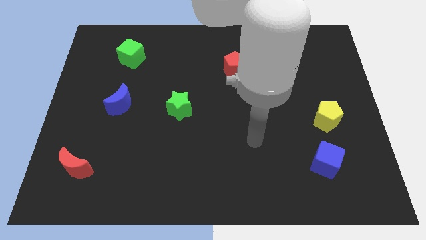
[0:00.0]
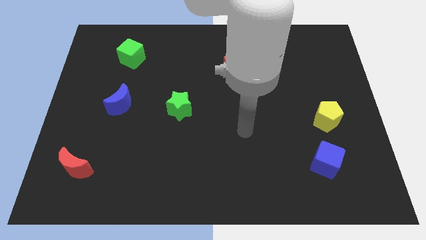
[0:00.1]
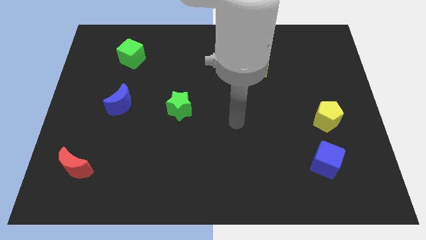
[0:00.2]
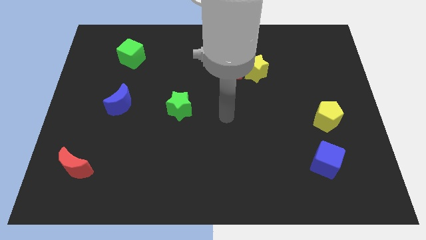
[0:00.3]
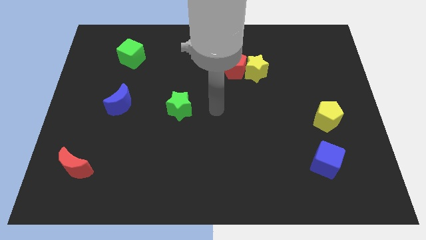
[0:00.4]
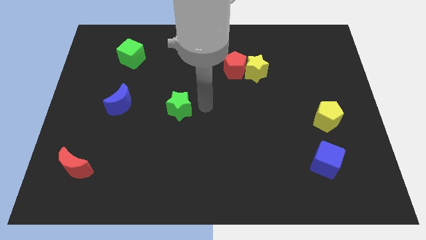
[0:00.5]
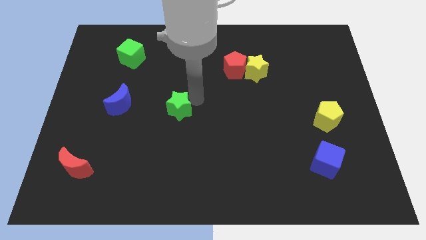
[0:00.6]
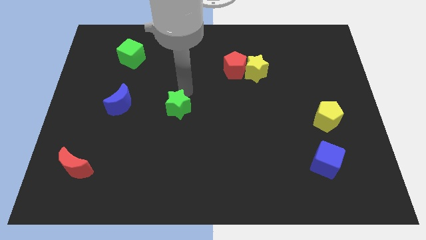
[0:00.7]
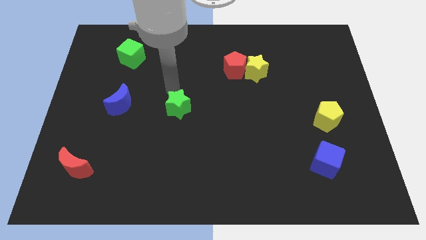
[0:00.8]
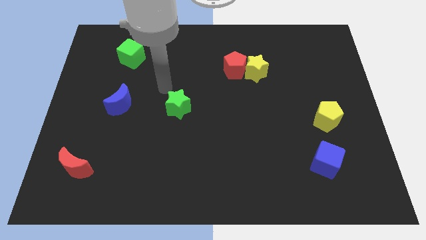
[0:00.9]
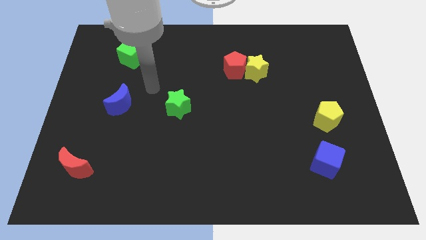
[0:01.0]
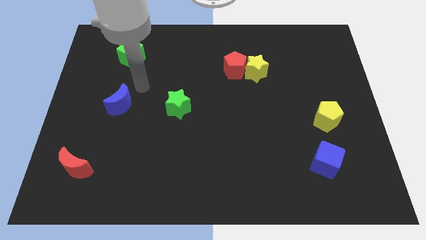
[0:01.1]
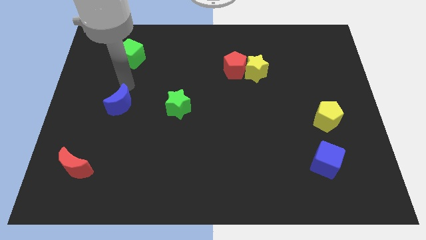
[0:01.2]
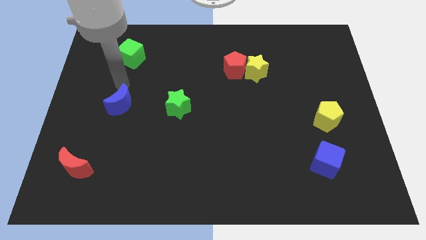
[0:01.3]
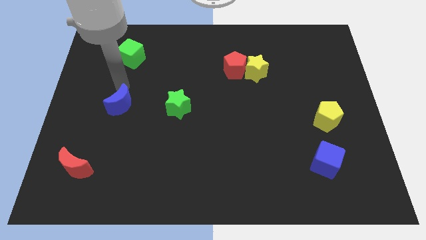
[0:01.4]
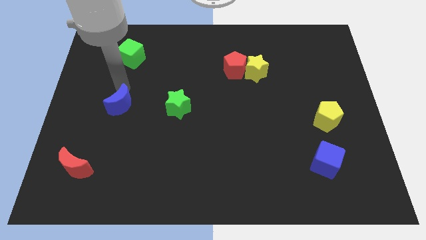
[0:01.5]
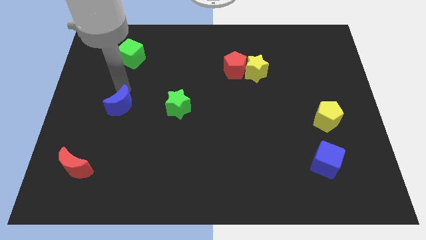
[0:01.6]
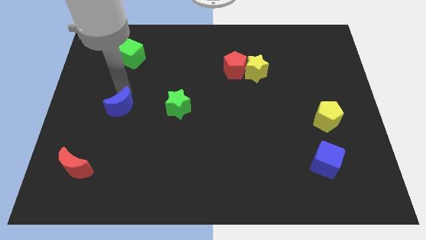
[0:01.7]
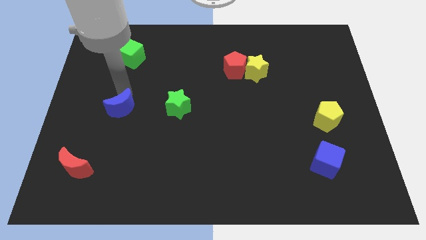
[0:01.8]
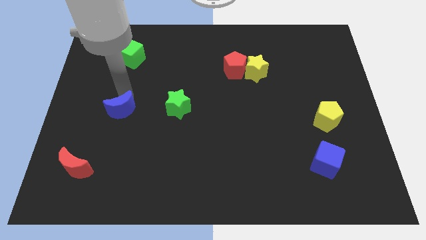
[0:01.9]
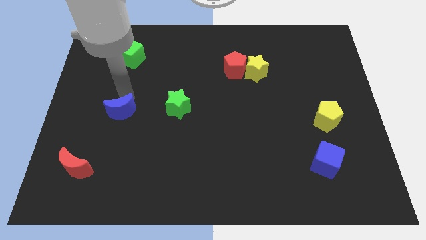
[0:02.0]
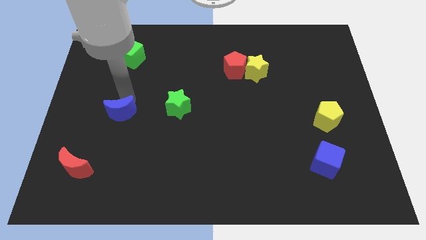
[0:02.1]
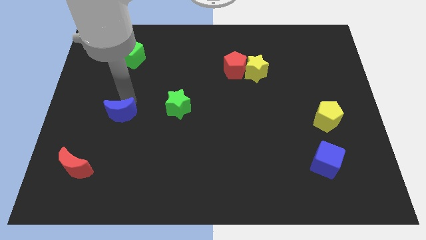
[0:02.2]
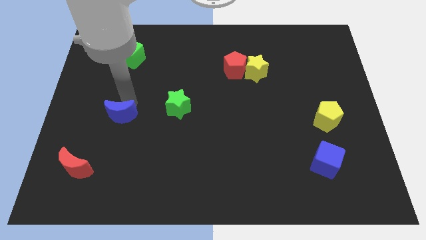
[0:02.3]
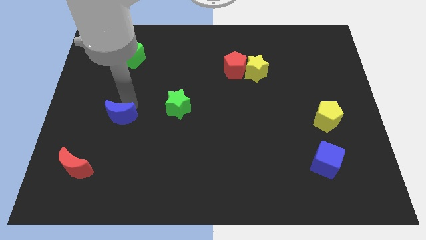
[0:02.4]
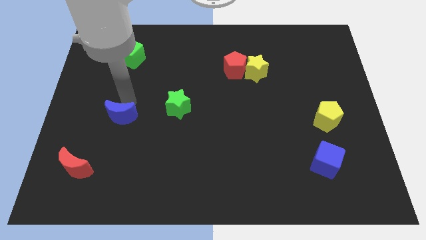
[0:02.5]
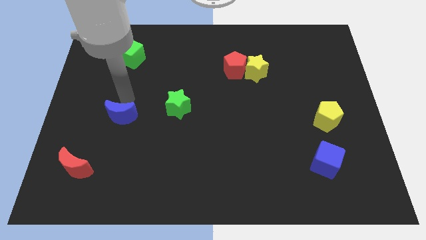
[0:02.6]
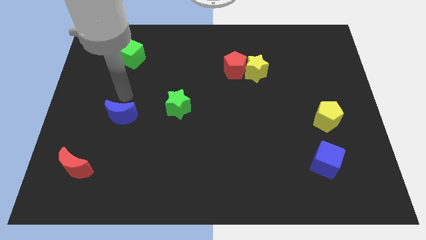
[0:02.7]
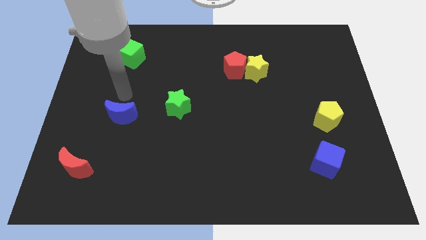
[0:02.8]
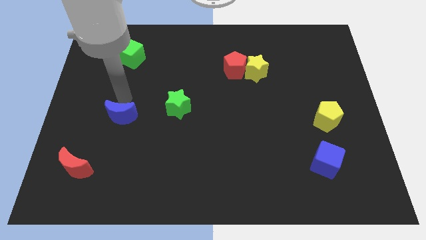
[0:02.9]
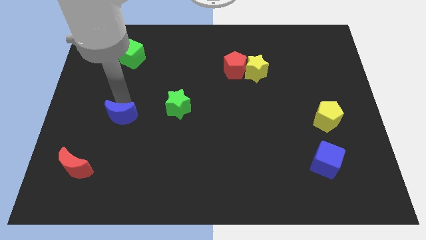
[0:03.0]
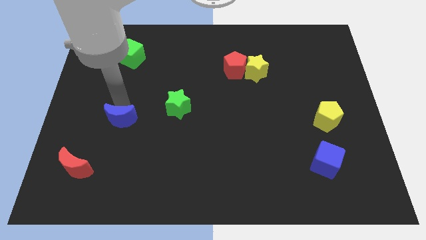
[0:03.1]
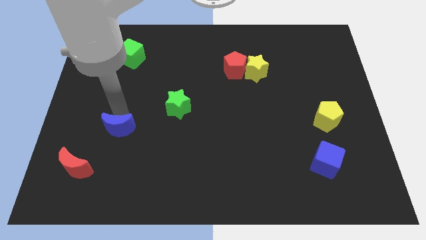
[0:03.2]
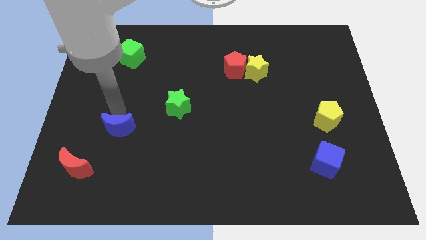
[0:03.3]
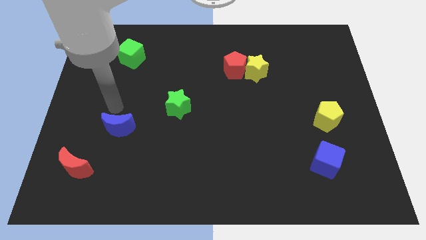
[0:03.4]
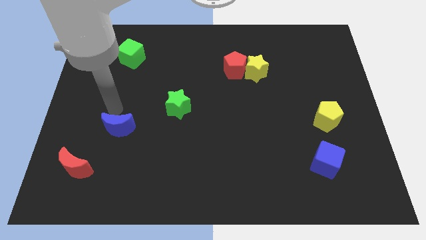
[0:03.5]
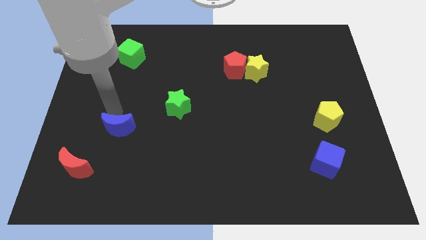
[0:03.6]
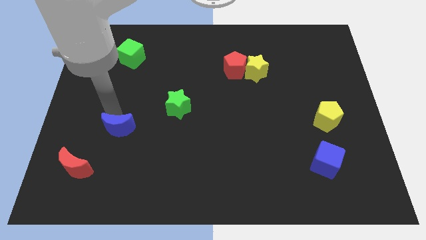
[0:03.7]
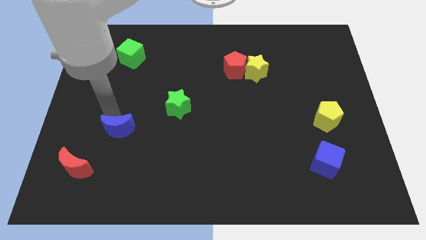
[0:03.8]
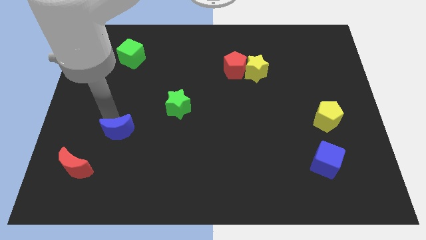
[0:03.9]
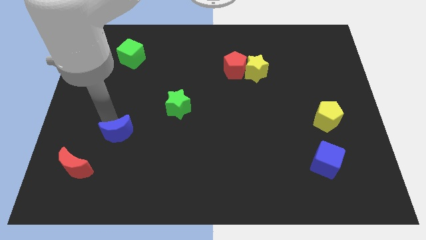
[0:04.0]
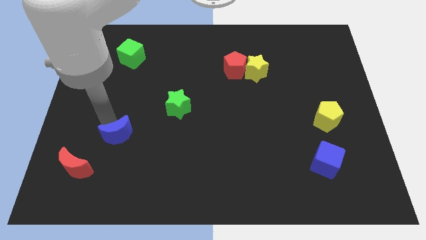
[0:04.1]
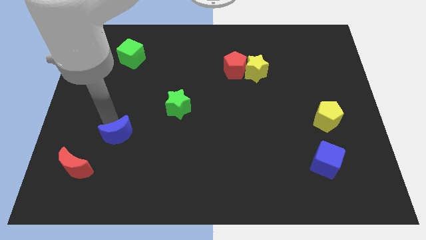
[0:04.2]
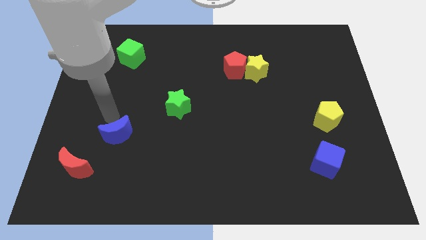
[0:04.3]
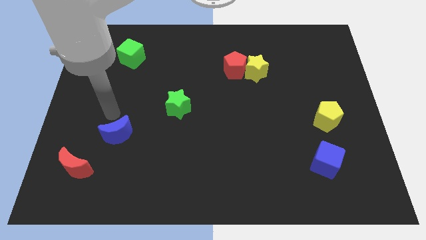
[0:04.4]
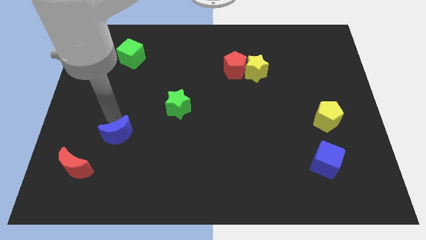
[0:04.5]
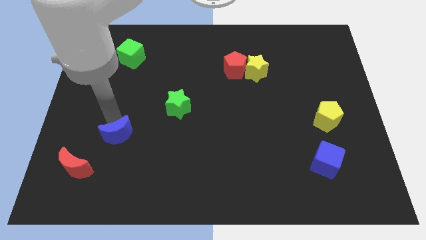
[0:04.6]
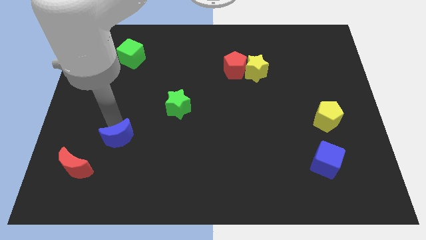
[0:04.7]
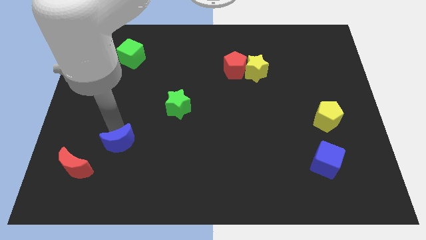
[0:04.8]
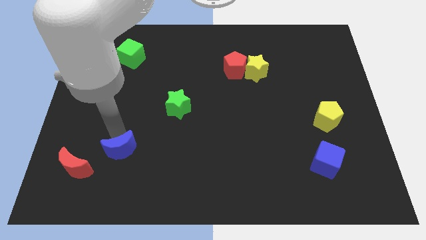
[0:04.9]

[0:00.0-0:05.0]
put the blue moon to the right side of the red moon

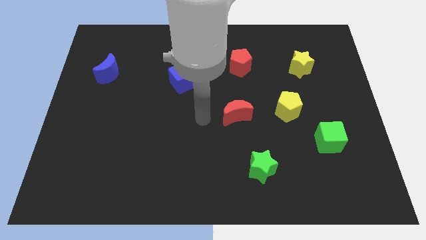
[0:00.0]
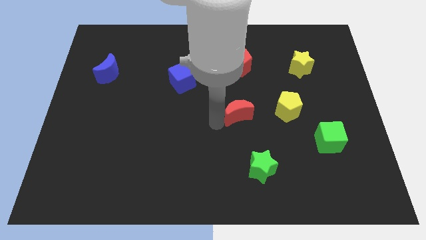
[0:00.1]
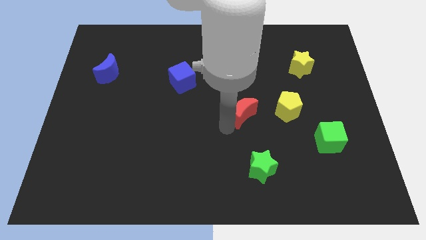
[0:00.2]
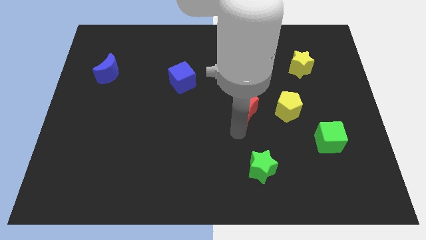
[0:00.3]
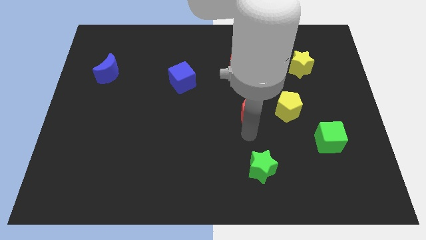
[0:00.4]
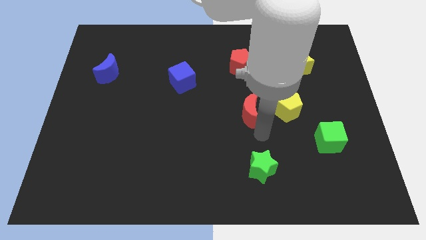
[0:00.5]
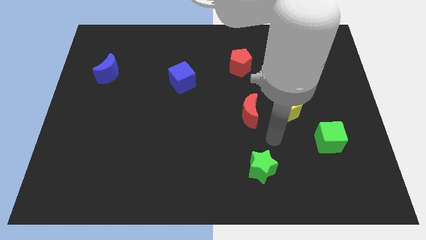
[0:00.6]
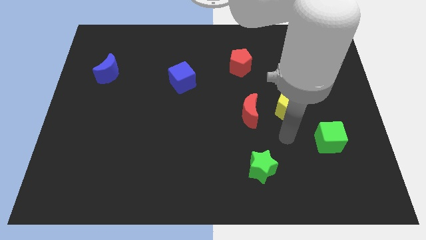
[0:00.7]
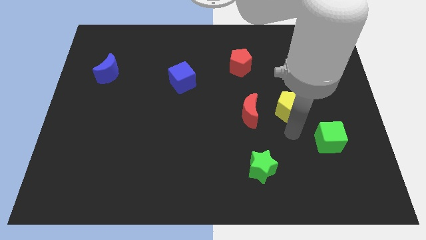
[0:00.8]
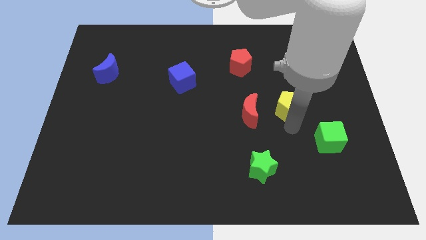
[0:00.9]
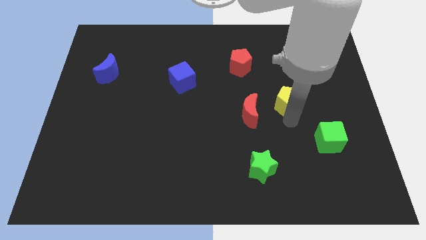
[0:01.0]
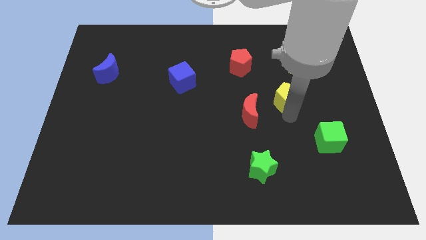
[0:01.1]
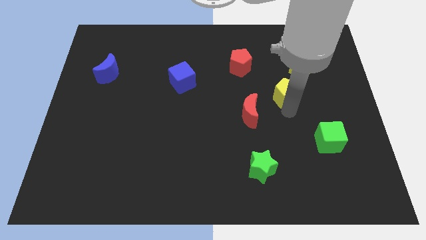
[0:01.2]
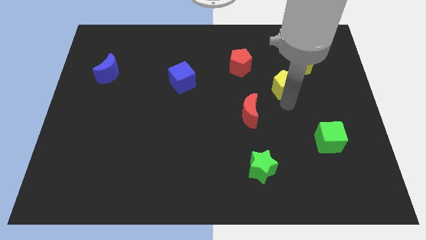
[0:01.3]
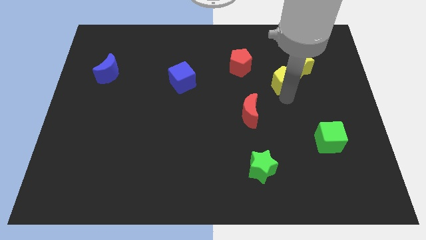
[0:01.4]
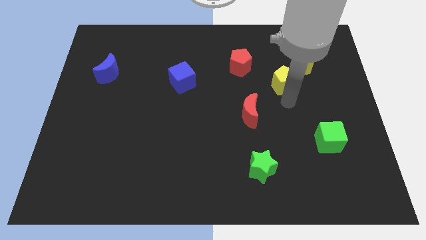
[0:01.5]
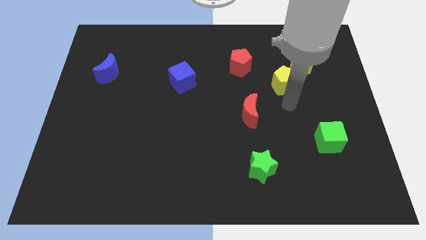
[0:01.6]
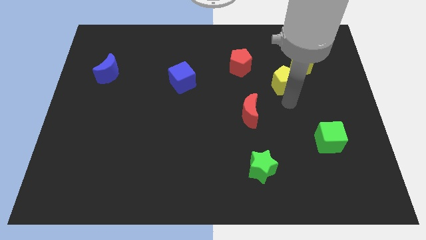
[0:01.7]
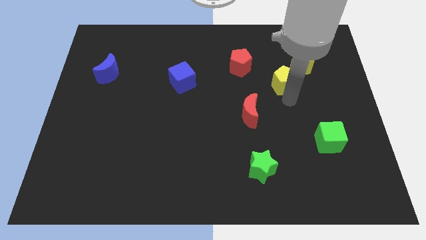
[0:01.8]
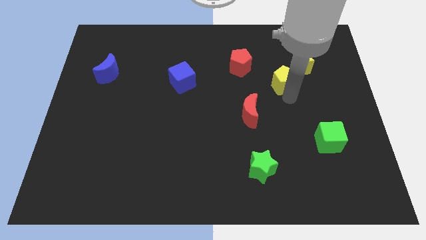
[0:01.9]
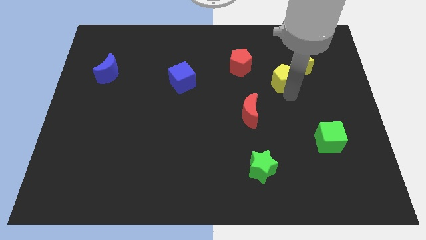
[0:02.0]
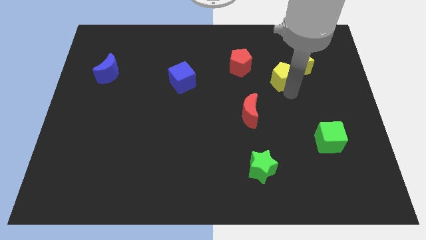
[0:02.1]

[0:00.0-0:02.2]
move the yellow pentagon to the right of the red pentagon
